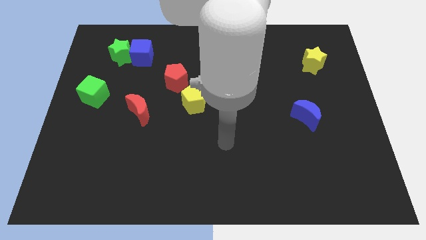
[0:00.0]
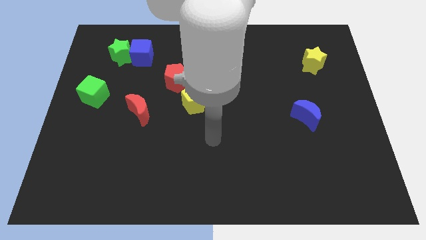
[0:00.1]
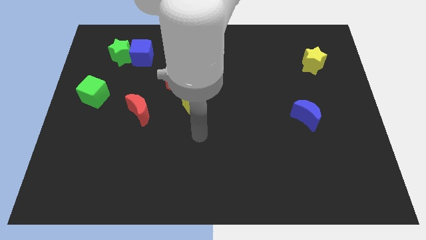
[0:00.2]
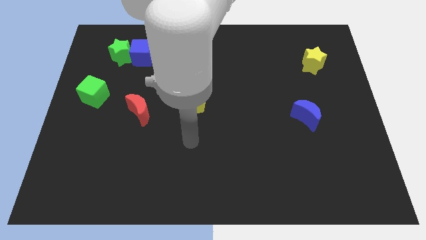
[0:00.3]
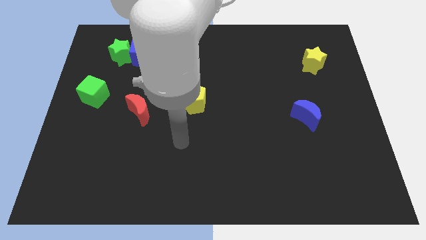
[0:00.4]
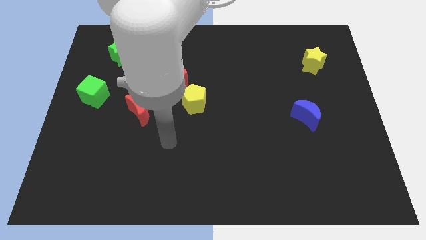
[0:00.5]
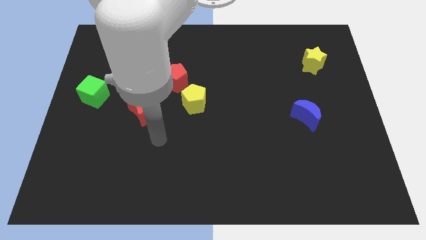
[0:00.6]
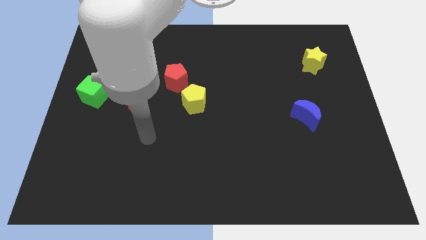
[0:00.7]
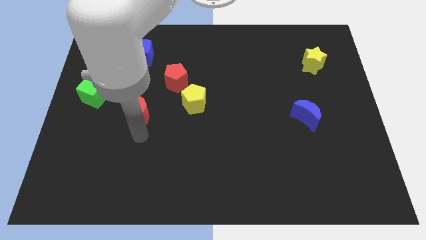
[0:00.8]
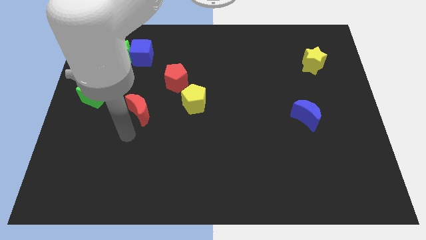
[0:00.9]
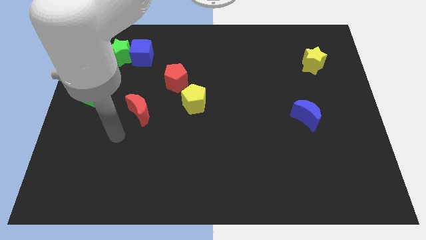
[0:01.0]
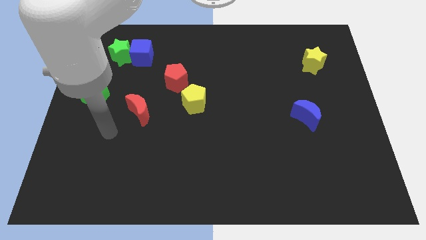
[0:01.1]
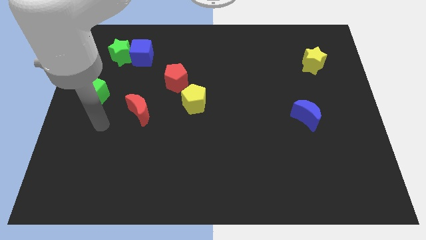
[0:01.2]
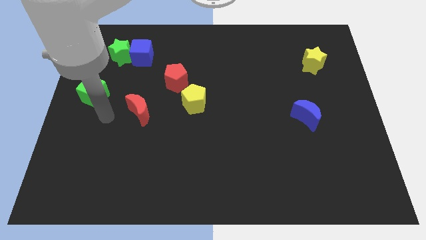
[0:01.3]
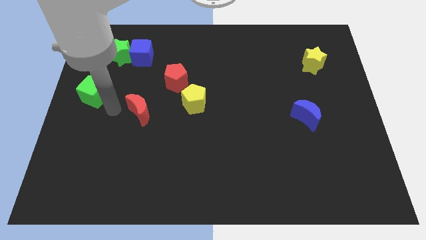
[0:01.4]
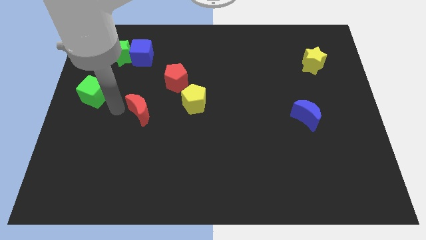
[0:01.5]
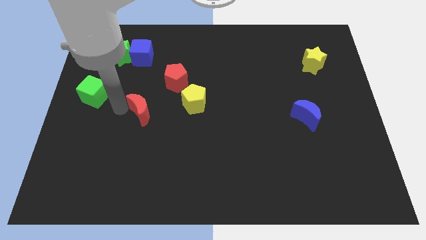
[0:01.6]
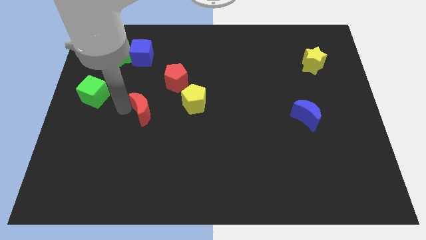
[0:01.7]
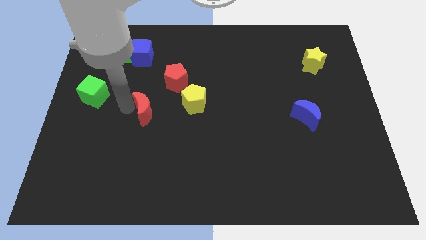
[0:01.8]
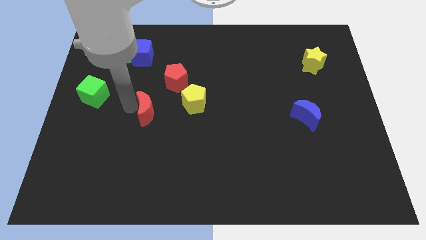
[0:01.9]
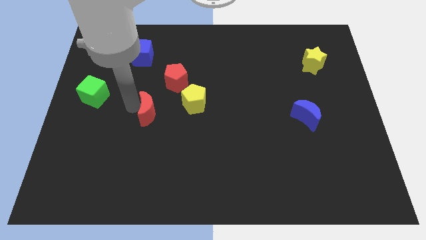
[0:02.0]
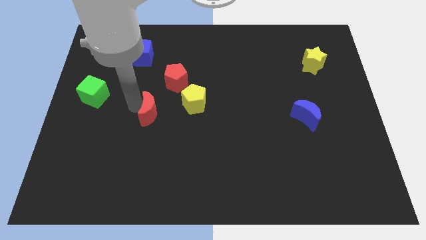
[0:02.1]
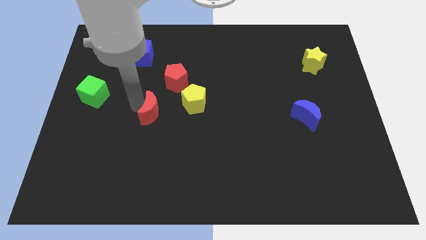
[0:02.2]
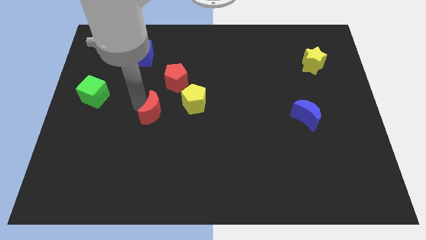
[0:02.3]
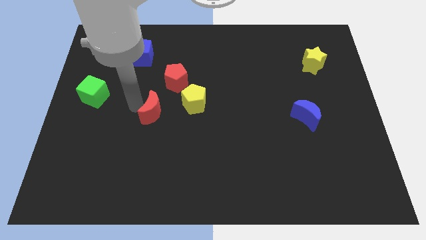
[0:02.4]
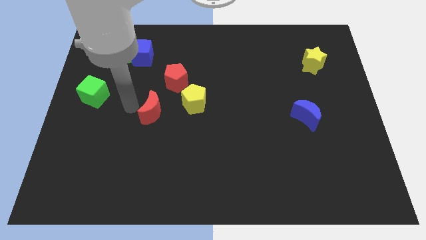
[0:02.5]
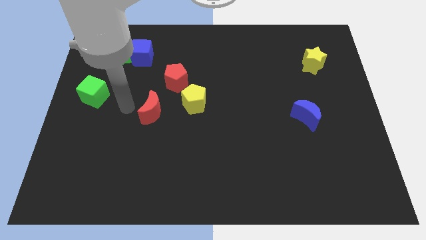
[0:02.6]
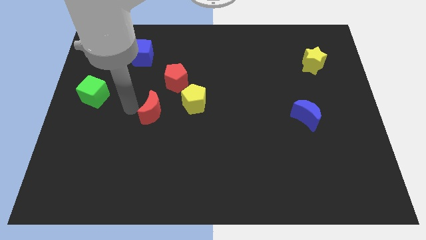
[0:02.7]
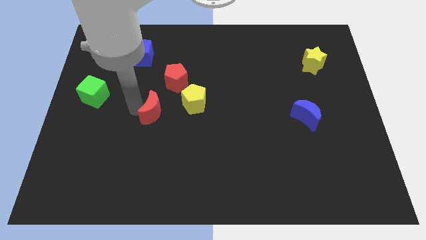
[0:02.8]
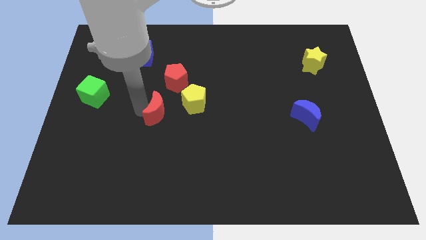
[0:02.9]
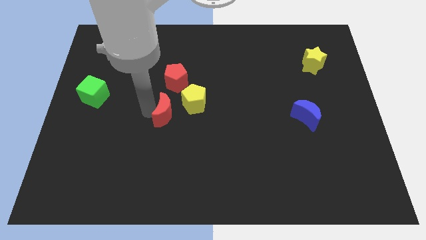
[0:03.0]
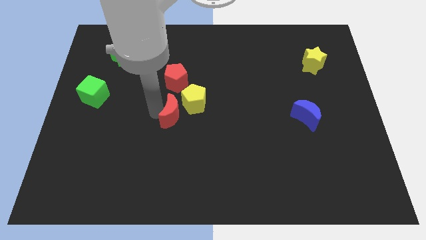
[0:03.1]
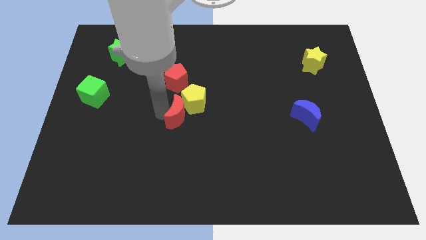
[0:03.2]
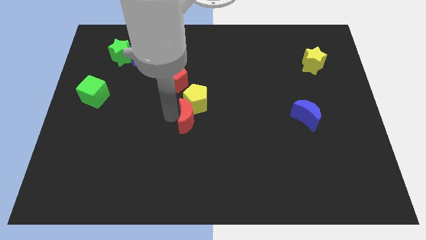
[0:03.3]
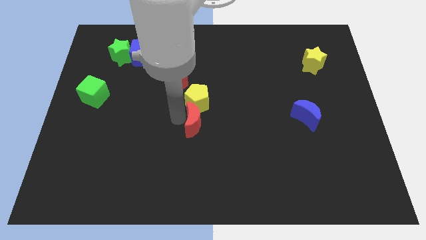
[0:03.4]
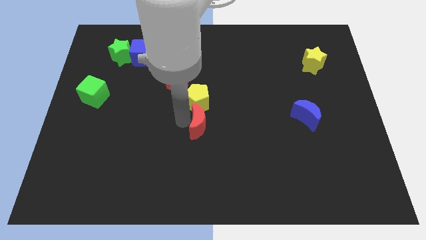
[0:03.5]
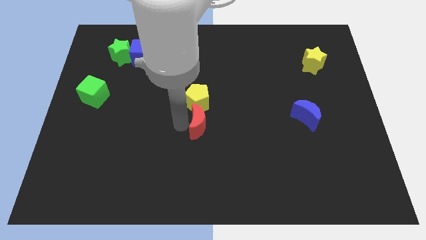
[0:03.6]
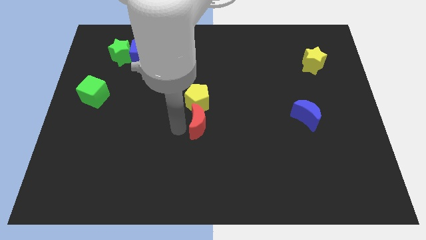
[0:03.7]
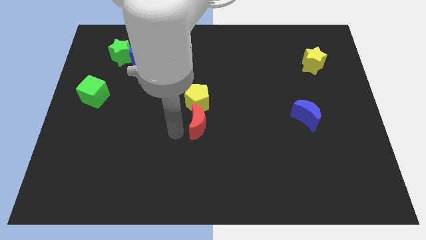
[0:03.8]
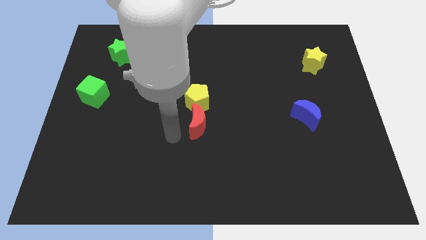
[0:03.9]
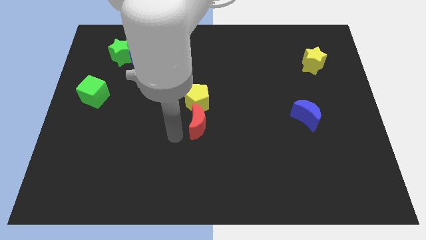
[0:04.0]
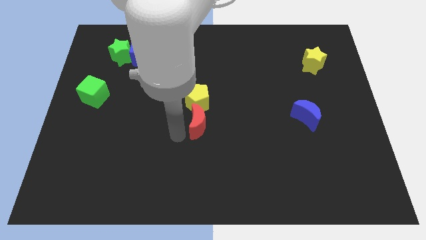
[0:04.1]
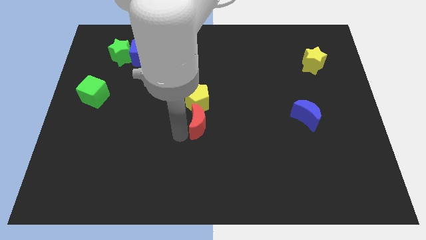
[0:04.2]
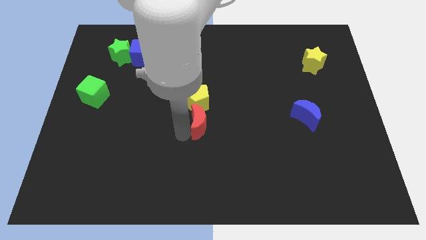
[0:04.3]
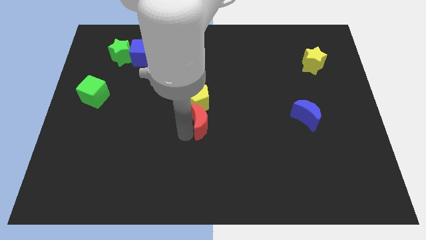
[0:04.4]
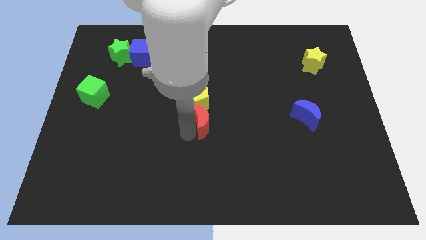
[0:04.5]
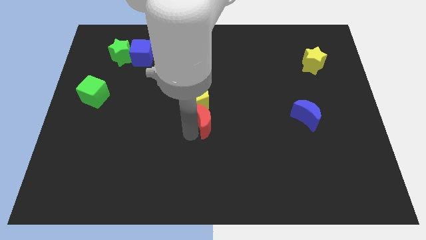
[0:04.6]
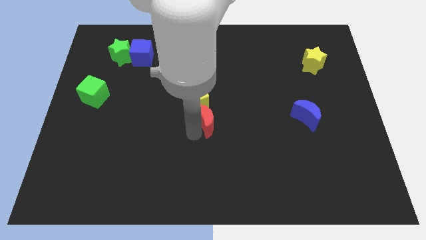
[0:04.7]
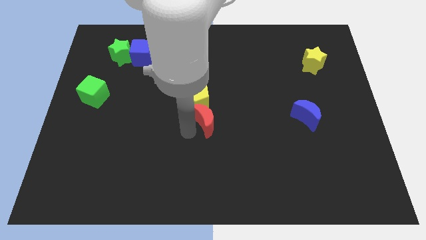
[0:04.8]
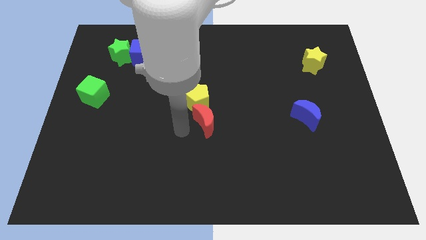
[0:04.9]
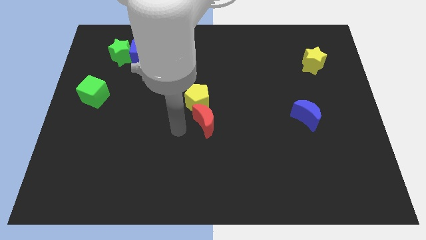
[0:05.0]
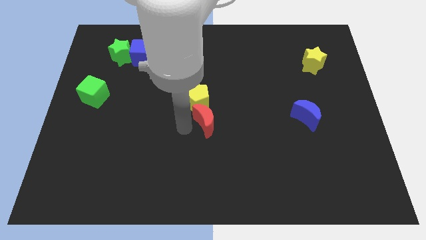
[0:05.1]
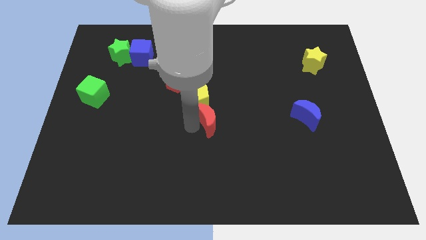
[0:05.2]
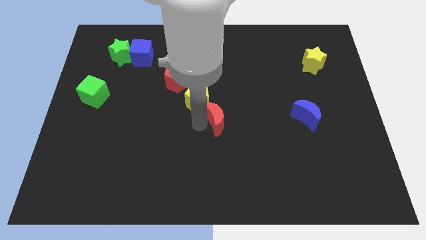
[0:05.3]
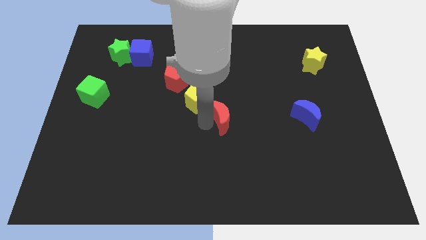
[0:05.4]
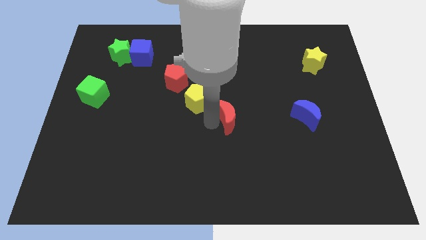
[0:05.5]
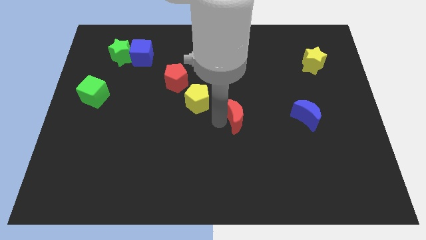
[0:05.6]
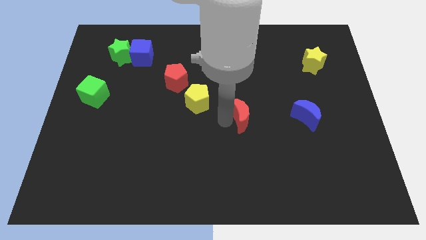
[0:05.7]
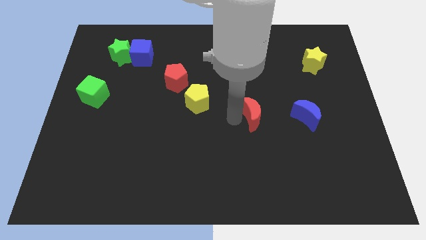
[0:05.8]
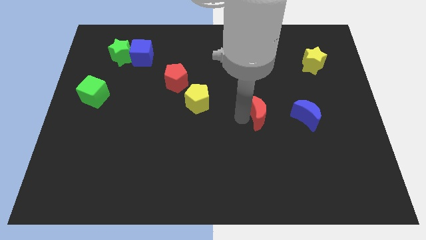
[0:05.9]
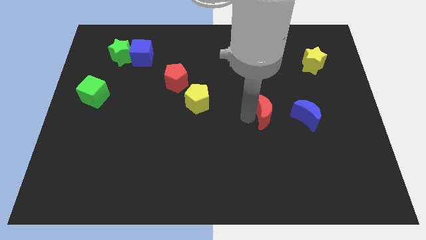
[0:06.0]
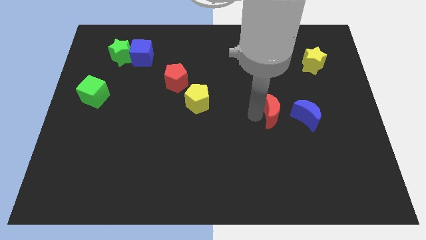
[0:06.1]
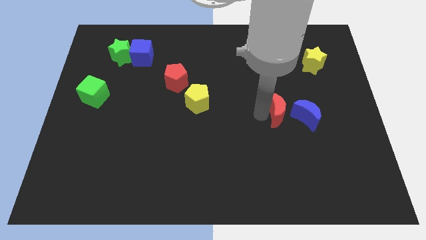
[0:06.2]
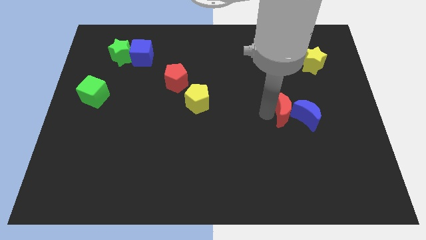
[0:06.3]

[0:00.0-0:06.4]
put the red moon towards the blue moon

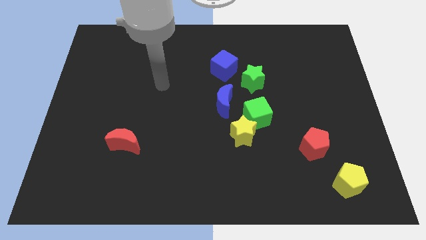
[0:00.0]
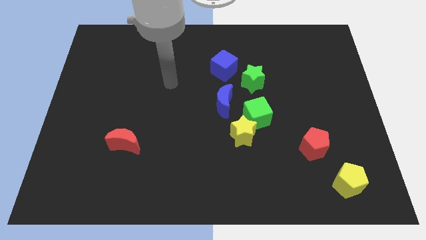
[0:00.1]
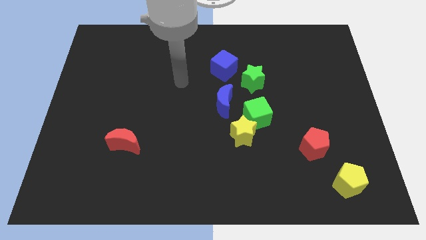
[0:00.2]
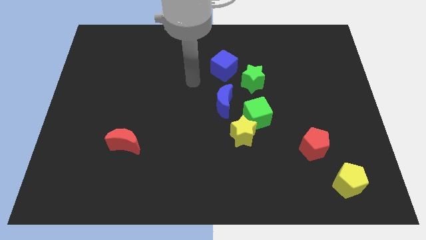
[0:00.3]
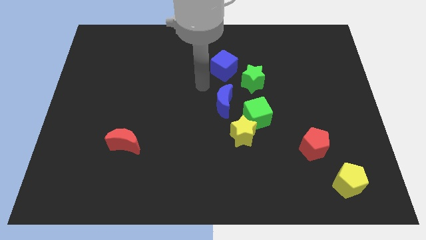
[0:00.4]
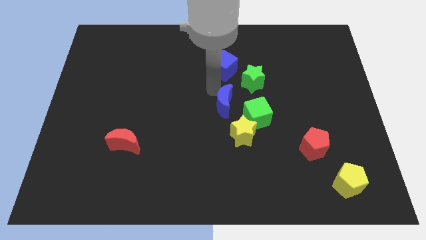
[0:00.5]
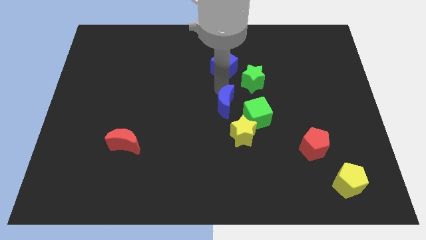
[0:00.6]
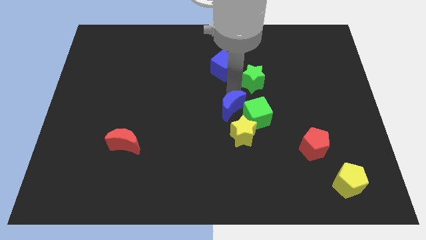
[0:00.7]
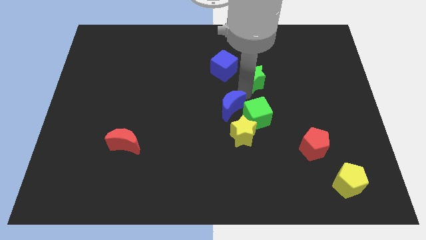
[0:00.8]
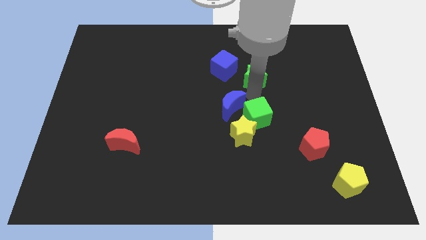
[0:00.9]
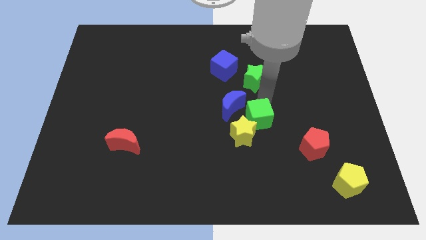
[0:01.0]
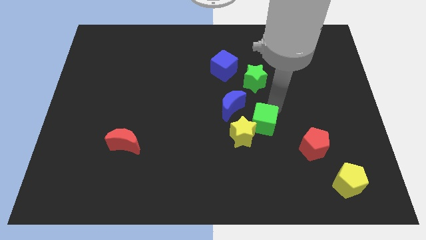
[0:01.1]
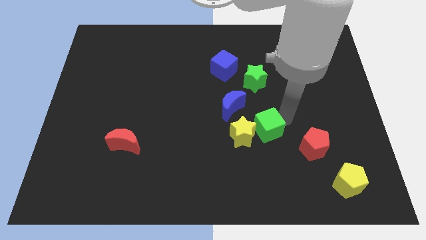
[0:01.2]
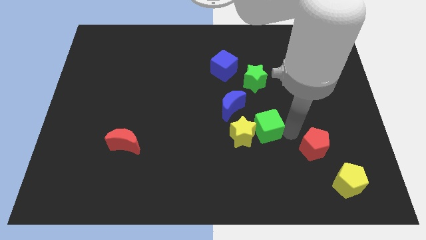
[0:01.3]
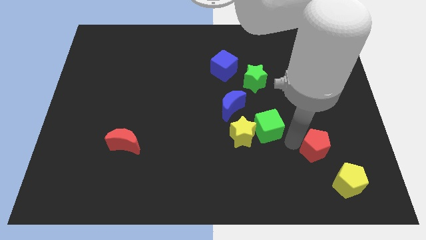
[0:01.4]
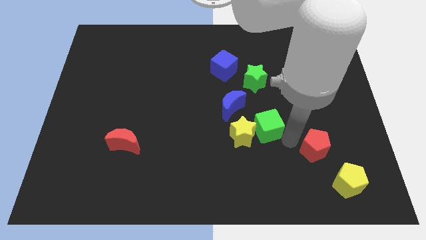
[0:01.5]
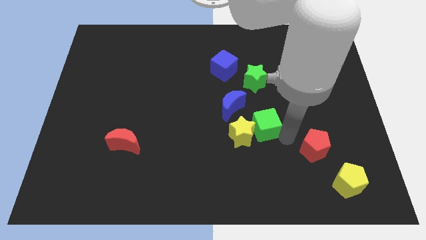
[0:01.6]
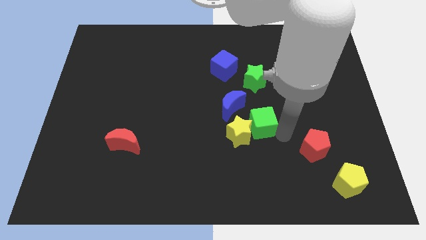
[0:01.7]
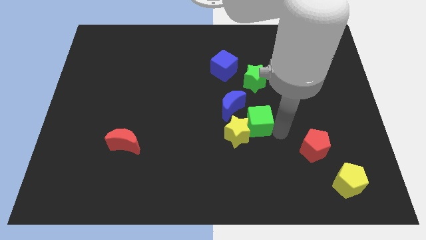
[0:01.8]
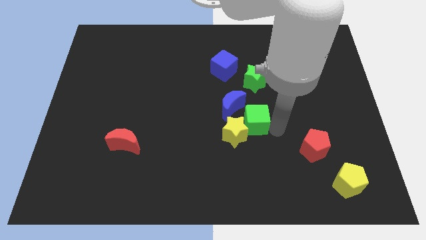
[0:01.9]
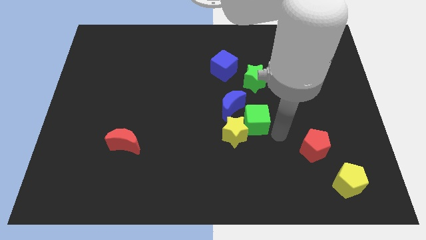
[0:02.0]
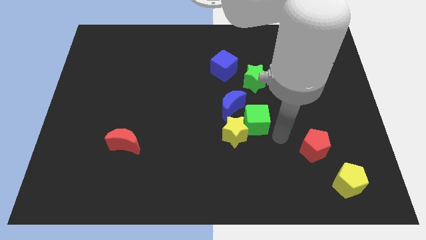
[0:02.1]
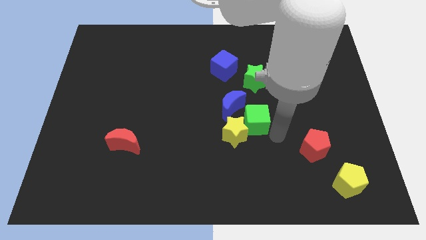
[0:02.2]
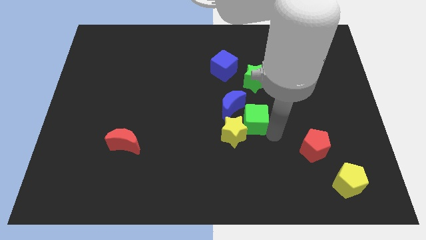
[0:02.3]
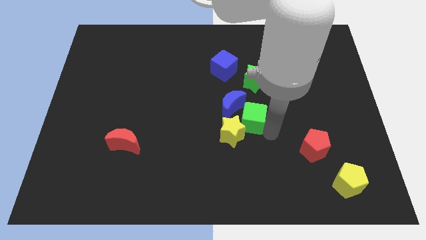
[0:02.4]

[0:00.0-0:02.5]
put the green cube next to the blue moon
